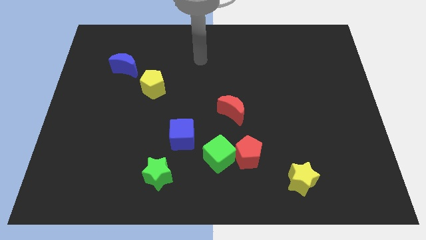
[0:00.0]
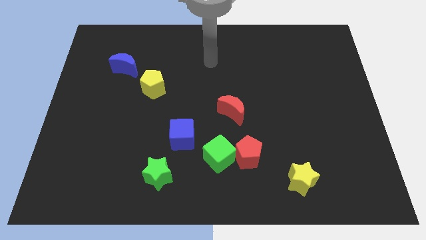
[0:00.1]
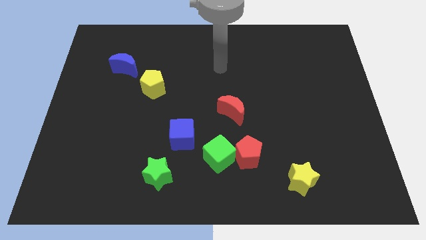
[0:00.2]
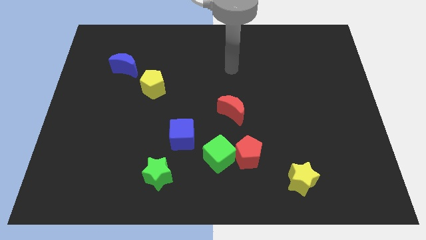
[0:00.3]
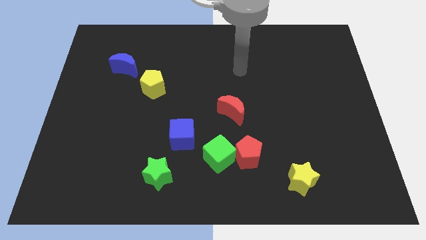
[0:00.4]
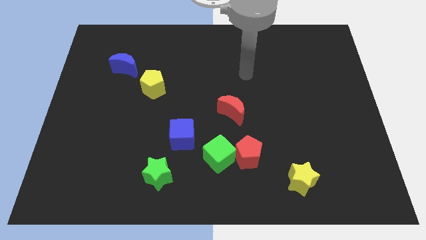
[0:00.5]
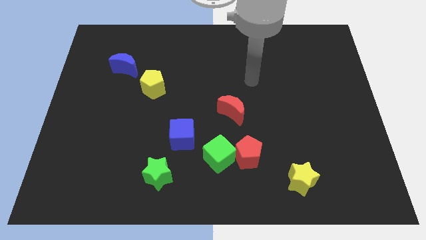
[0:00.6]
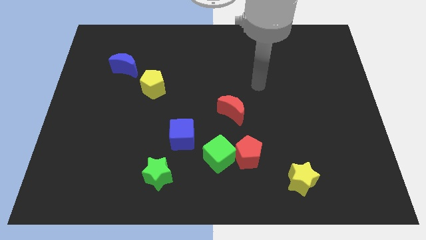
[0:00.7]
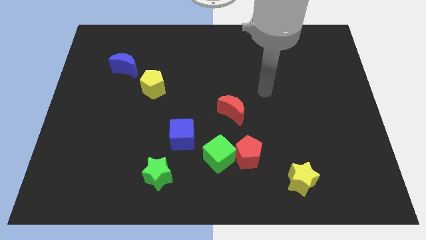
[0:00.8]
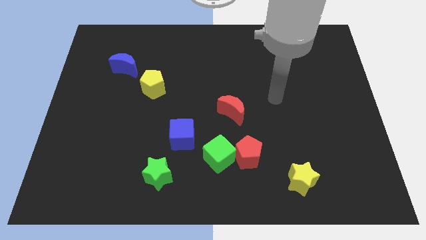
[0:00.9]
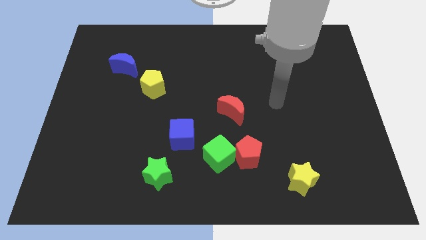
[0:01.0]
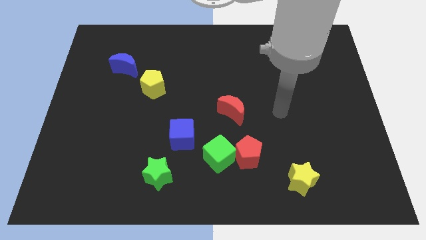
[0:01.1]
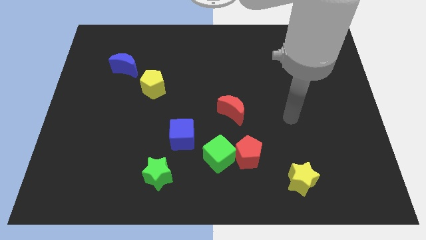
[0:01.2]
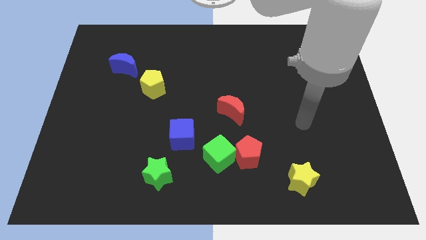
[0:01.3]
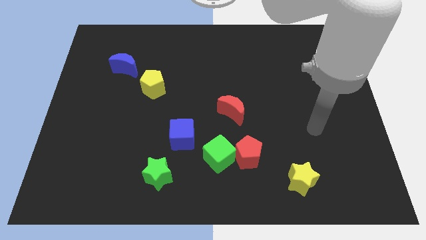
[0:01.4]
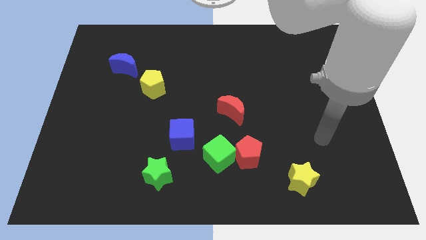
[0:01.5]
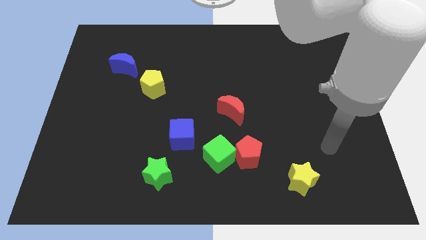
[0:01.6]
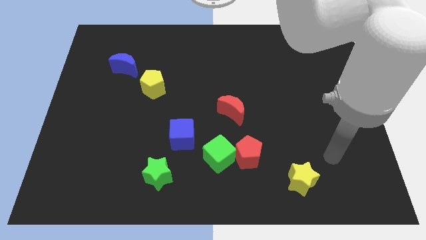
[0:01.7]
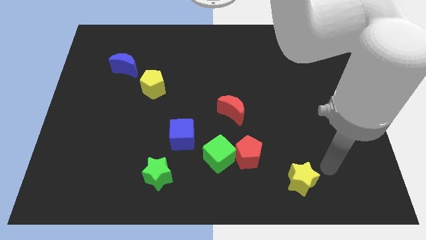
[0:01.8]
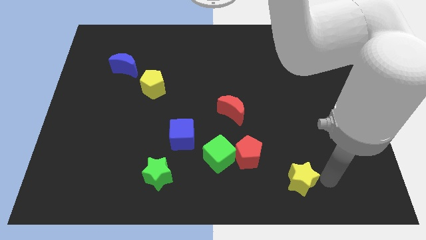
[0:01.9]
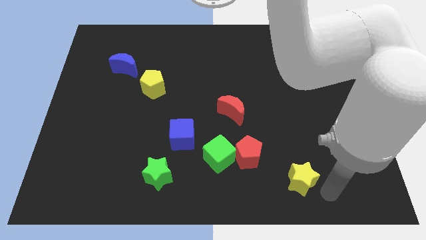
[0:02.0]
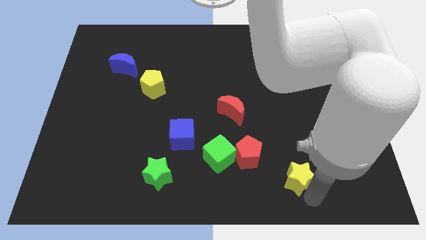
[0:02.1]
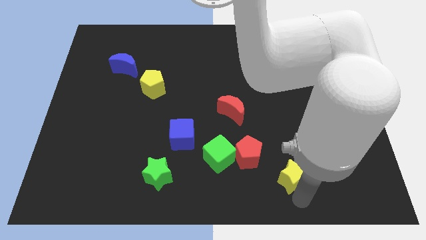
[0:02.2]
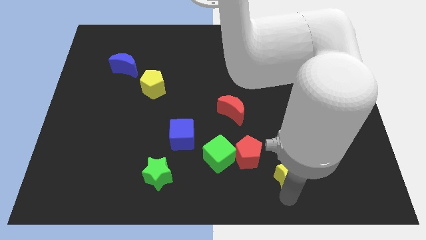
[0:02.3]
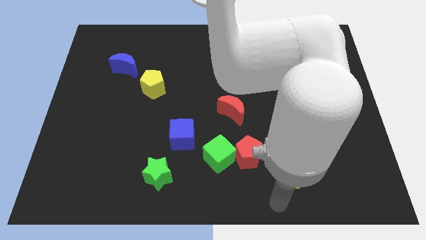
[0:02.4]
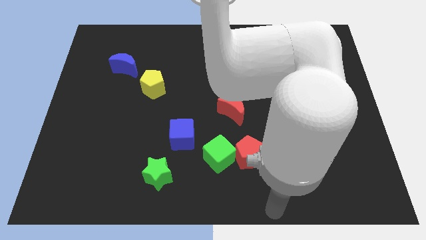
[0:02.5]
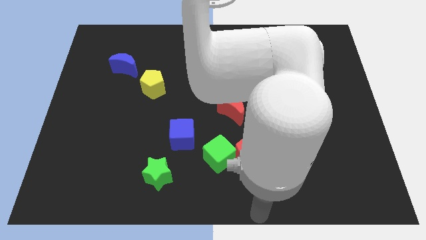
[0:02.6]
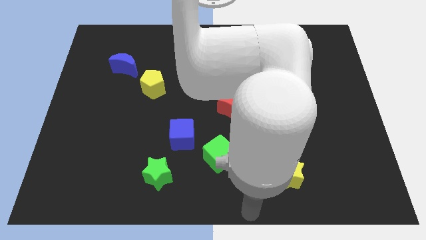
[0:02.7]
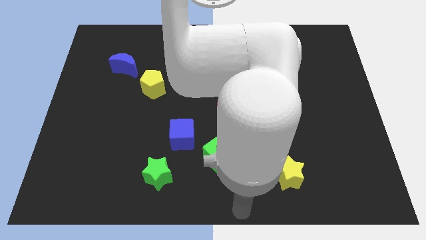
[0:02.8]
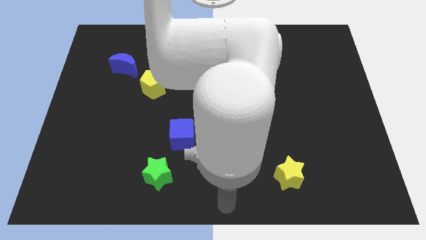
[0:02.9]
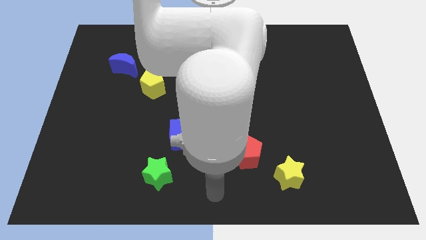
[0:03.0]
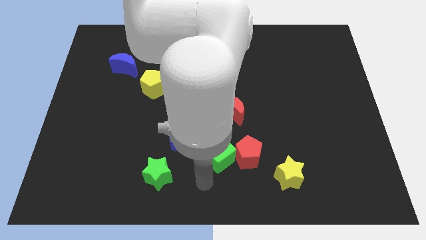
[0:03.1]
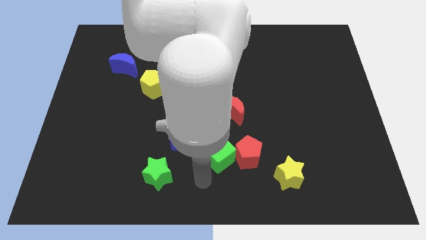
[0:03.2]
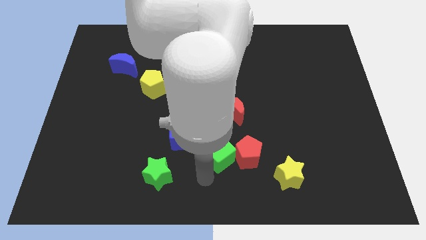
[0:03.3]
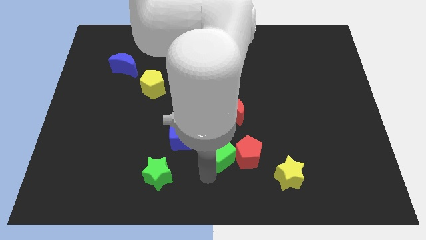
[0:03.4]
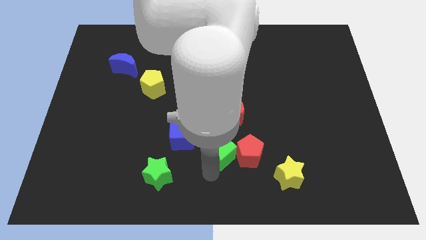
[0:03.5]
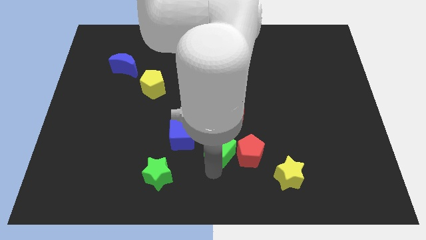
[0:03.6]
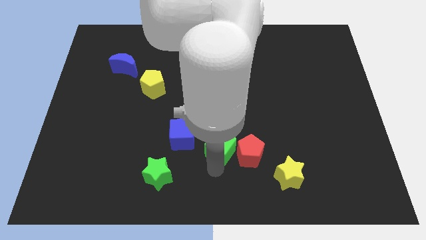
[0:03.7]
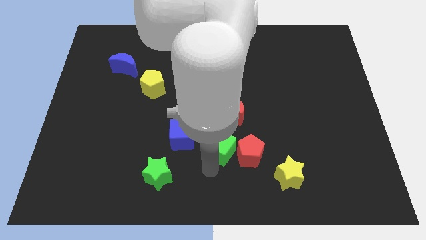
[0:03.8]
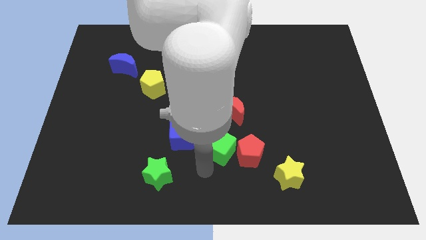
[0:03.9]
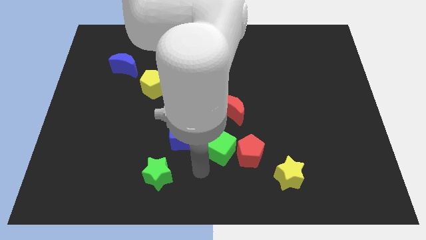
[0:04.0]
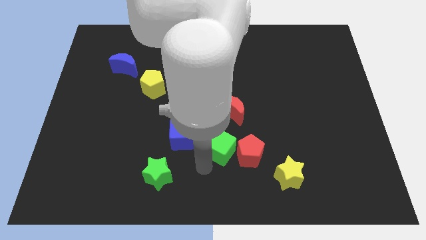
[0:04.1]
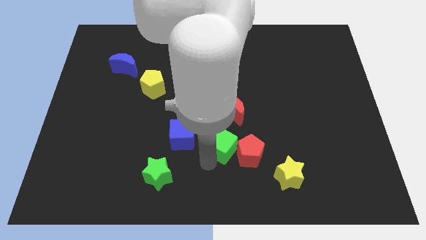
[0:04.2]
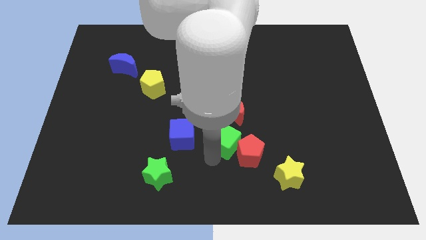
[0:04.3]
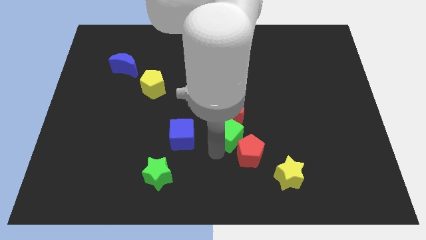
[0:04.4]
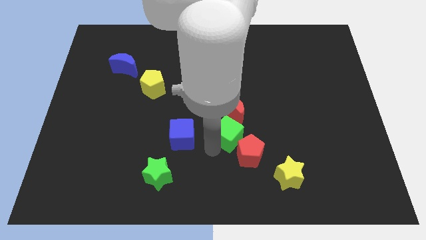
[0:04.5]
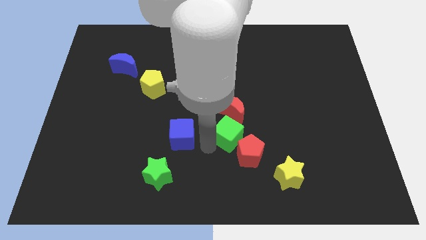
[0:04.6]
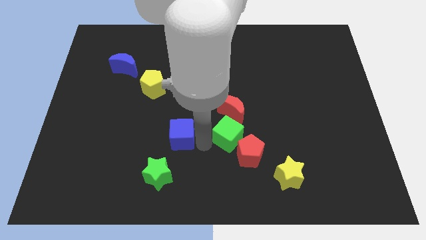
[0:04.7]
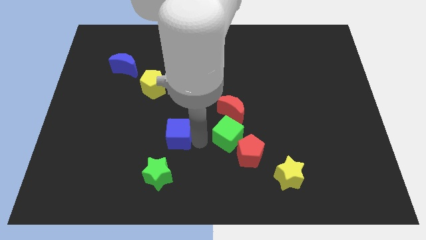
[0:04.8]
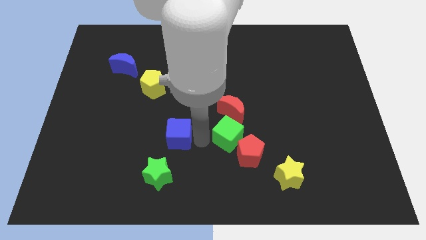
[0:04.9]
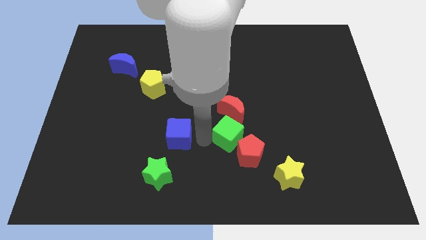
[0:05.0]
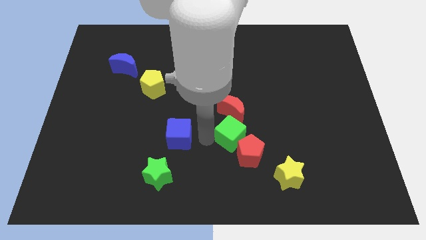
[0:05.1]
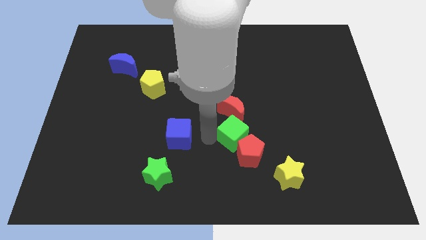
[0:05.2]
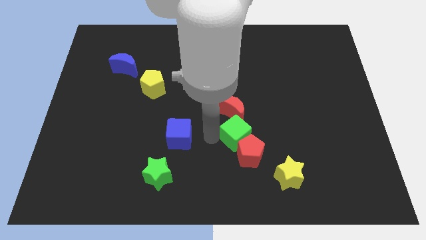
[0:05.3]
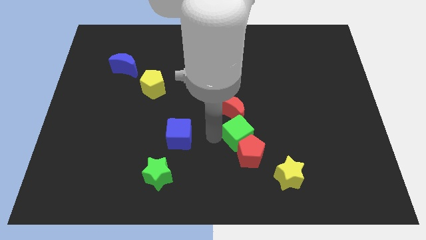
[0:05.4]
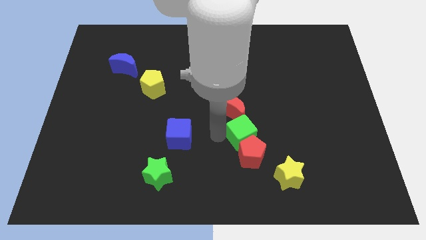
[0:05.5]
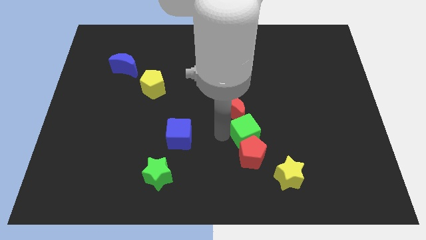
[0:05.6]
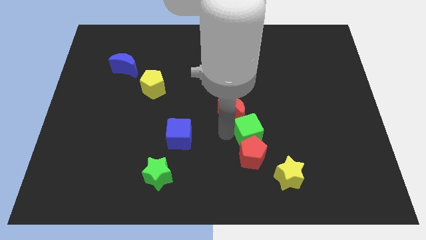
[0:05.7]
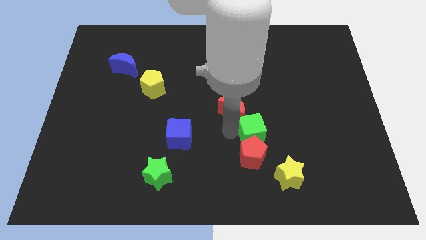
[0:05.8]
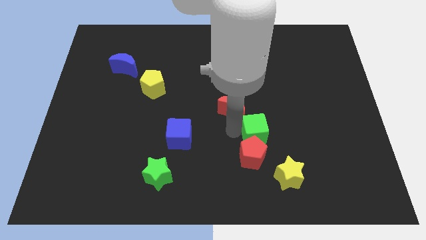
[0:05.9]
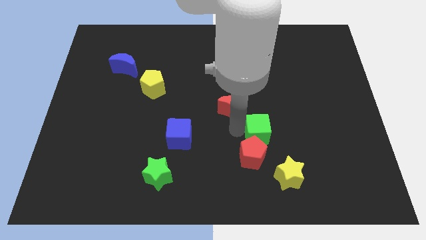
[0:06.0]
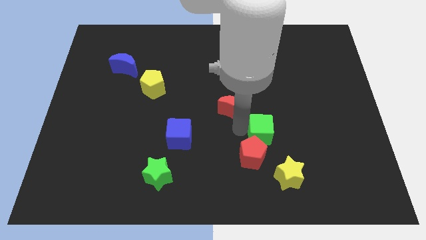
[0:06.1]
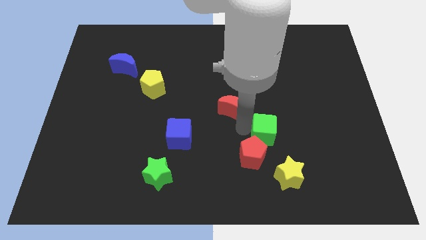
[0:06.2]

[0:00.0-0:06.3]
move the green cube to the top of the yellow star
